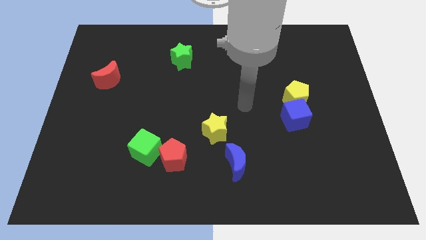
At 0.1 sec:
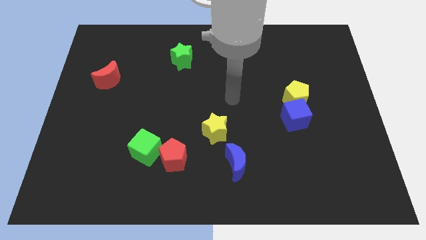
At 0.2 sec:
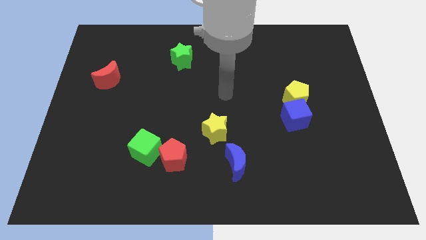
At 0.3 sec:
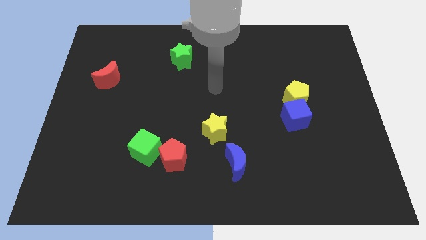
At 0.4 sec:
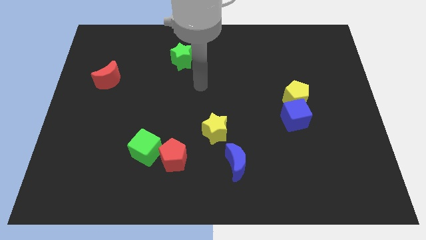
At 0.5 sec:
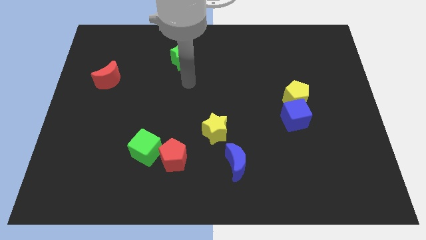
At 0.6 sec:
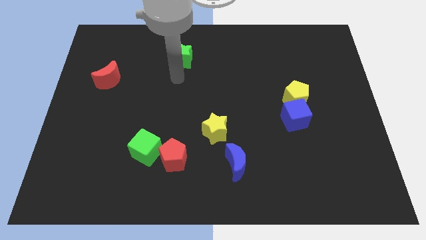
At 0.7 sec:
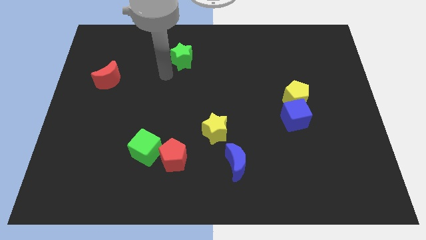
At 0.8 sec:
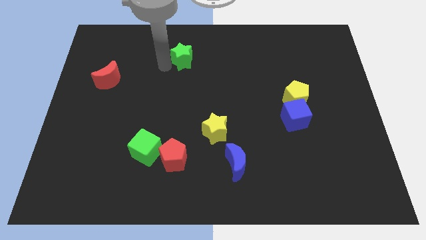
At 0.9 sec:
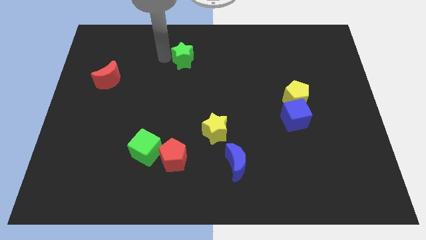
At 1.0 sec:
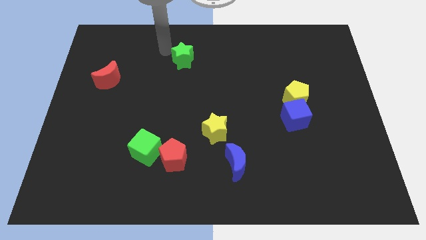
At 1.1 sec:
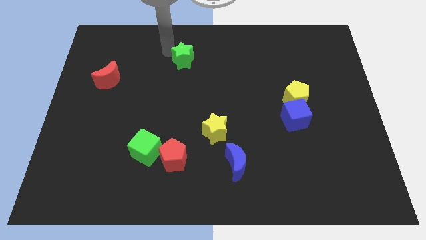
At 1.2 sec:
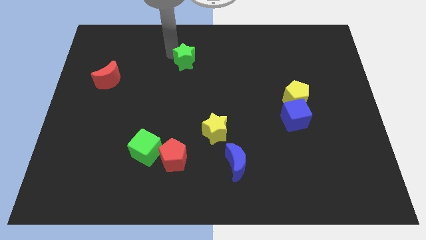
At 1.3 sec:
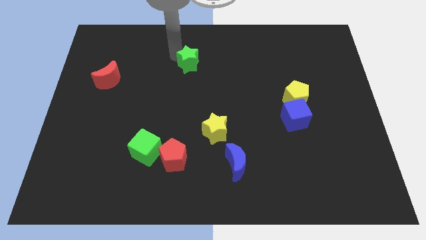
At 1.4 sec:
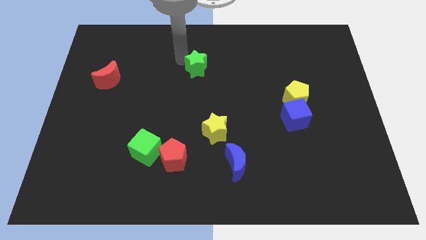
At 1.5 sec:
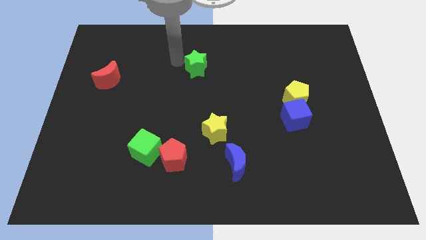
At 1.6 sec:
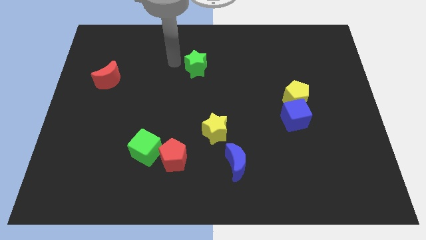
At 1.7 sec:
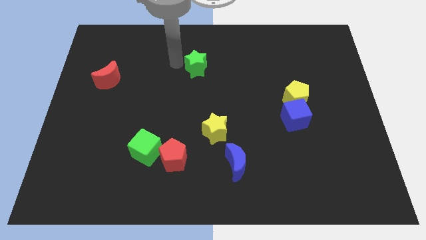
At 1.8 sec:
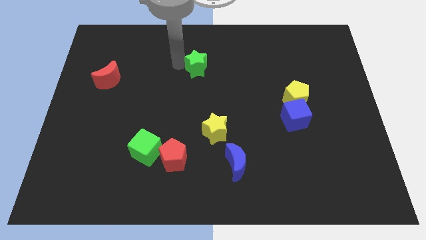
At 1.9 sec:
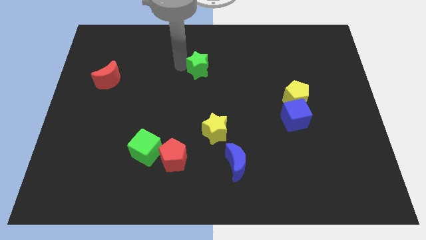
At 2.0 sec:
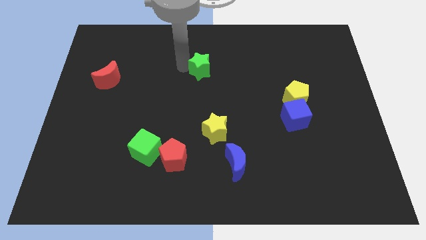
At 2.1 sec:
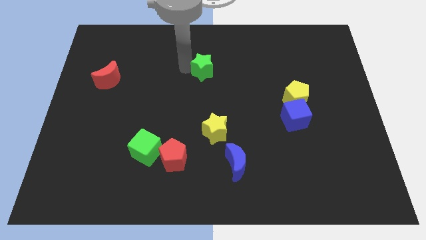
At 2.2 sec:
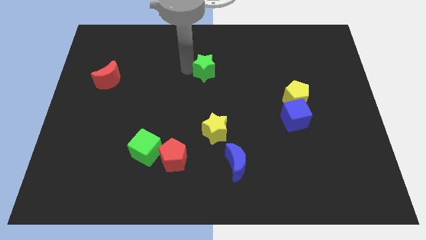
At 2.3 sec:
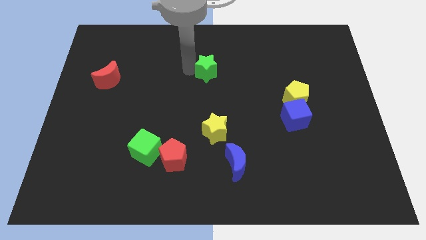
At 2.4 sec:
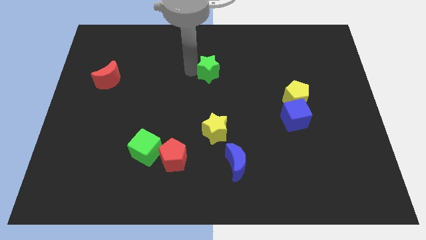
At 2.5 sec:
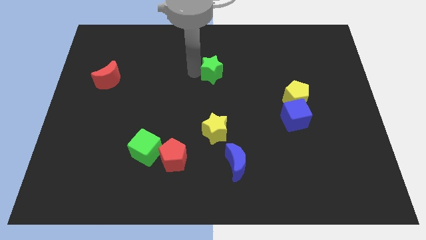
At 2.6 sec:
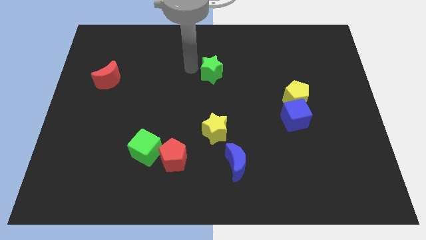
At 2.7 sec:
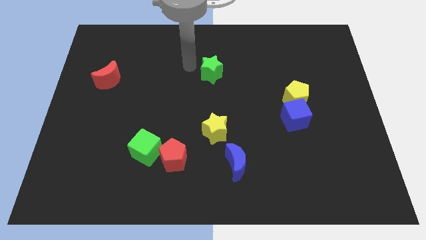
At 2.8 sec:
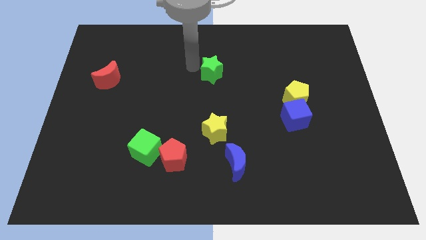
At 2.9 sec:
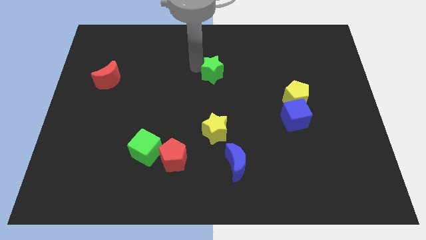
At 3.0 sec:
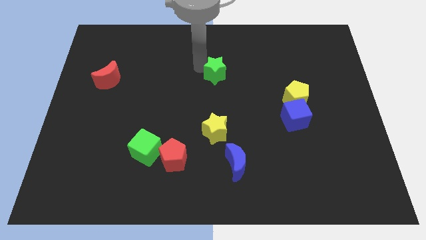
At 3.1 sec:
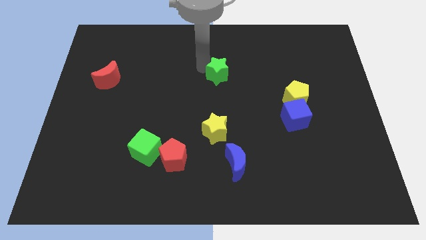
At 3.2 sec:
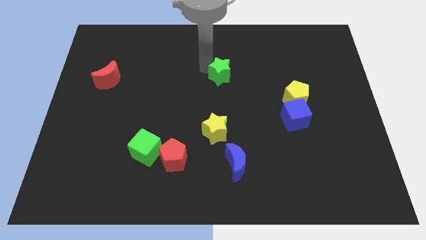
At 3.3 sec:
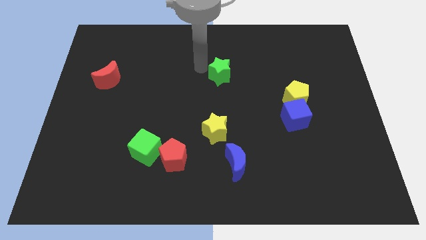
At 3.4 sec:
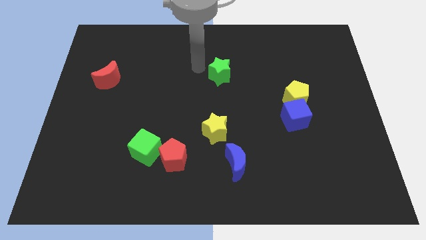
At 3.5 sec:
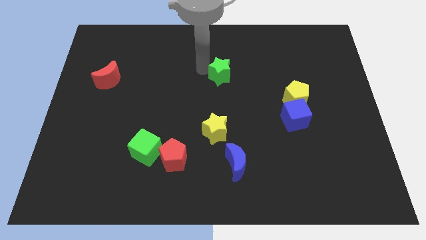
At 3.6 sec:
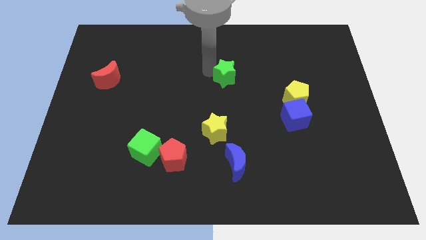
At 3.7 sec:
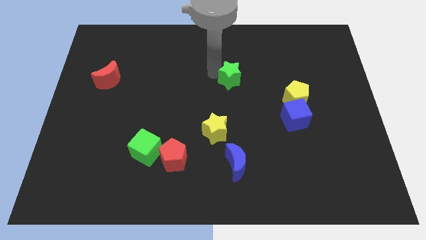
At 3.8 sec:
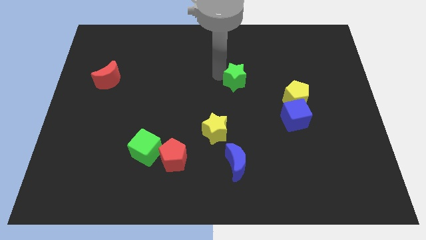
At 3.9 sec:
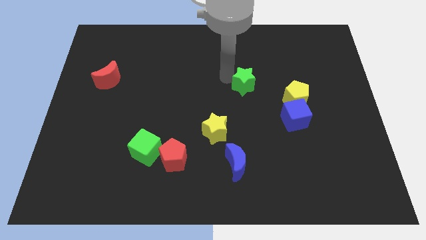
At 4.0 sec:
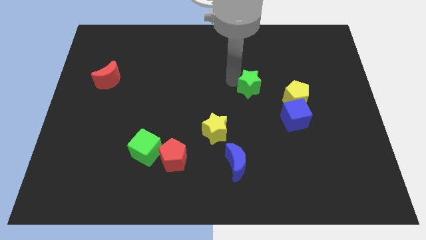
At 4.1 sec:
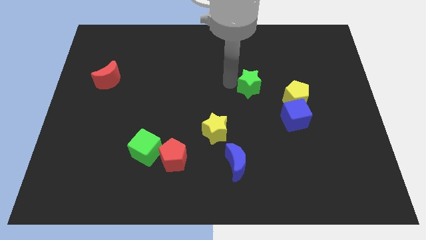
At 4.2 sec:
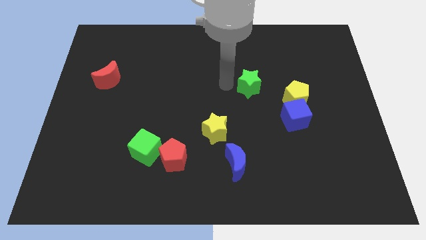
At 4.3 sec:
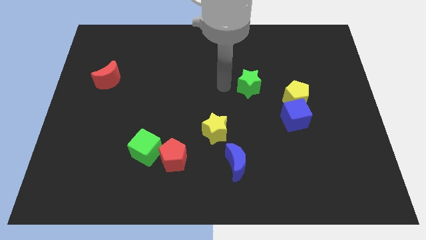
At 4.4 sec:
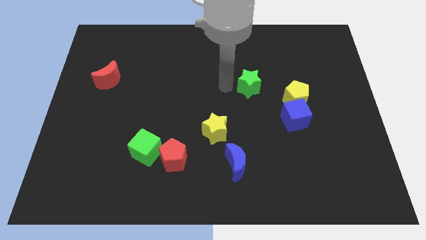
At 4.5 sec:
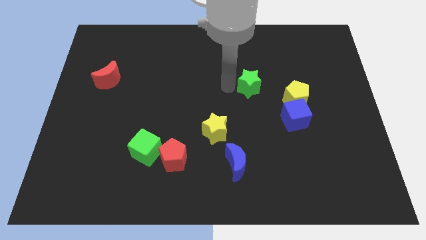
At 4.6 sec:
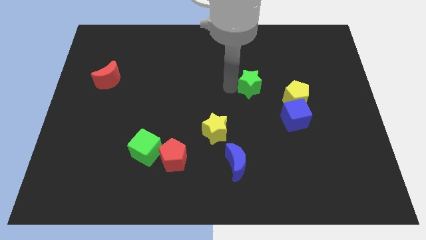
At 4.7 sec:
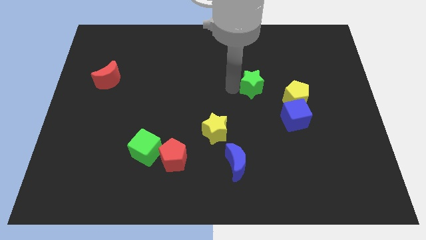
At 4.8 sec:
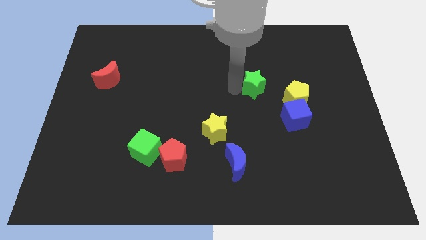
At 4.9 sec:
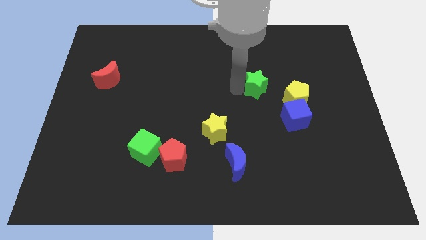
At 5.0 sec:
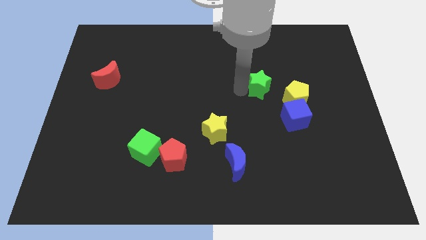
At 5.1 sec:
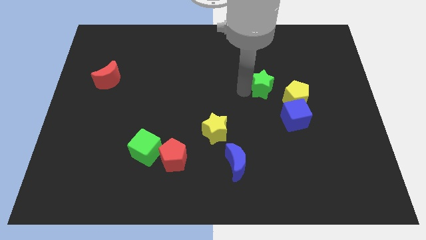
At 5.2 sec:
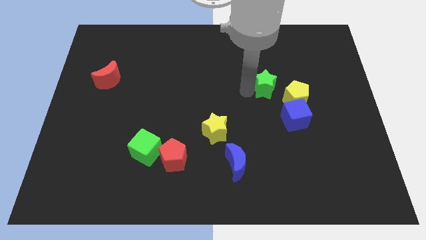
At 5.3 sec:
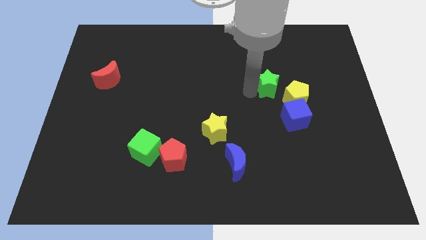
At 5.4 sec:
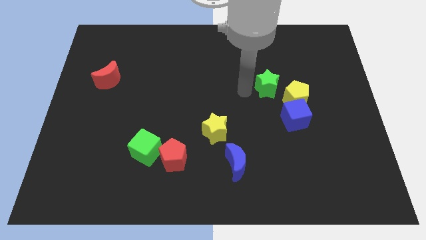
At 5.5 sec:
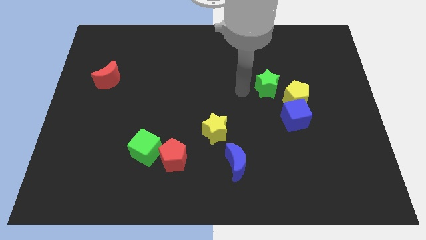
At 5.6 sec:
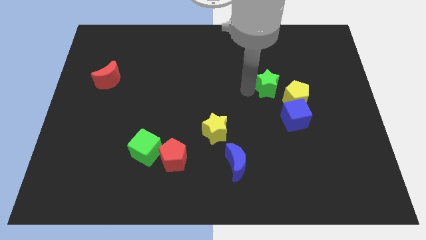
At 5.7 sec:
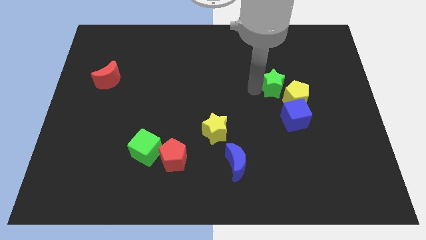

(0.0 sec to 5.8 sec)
put the green star to the top side of the blue cube

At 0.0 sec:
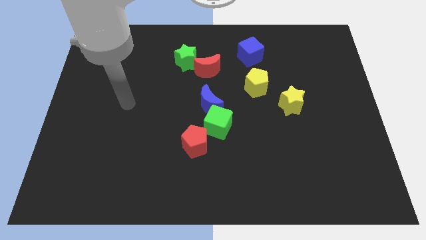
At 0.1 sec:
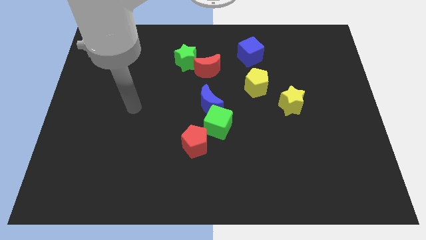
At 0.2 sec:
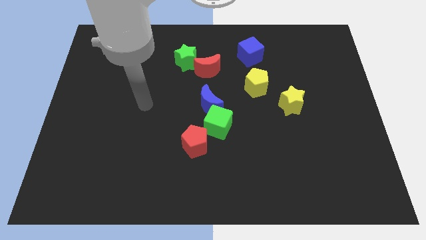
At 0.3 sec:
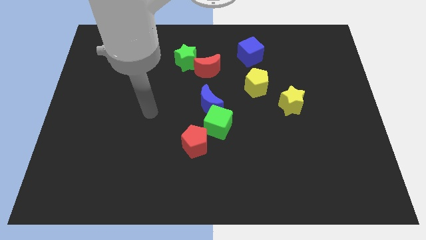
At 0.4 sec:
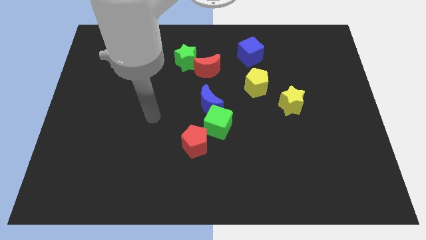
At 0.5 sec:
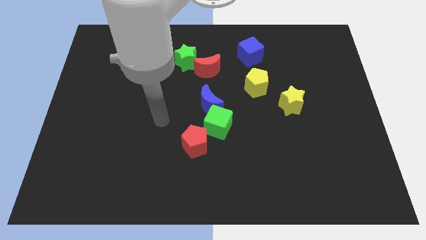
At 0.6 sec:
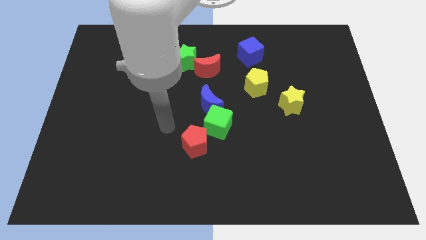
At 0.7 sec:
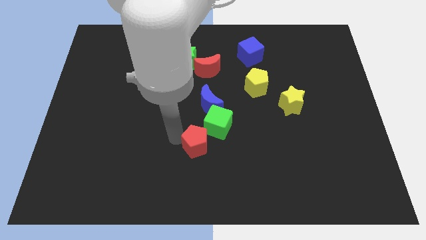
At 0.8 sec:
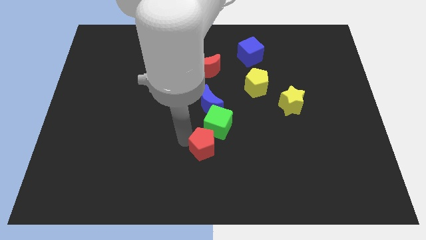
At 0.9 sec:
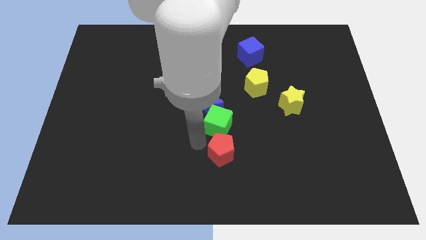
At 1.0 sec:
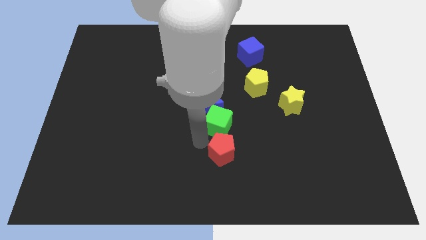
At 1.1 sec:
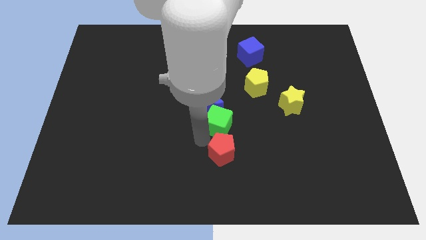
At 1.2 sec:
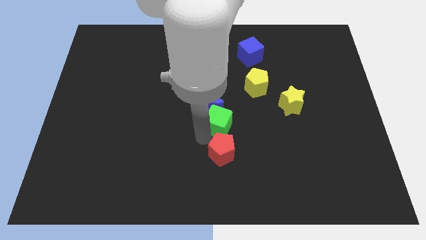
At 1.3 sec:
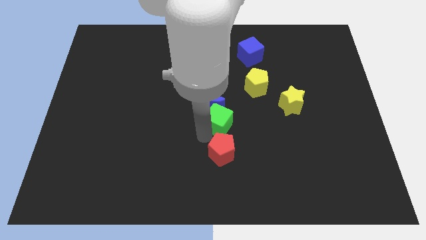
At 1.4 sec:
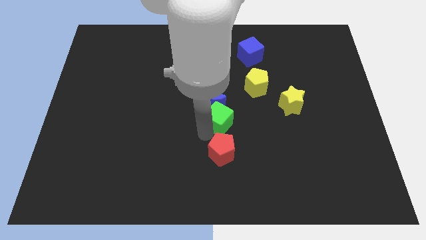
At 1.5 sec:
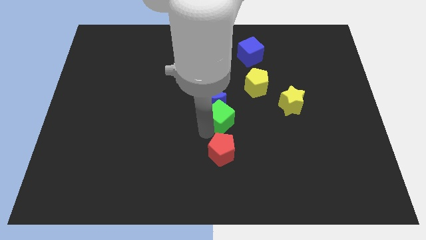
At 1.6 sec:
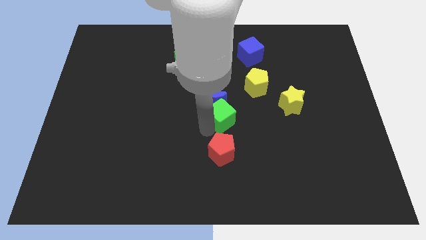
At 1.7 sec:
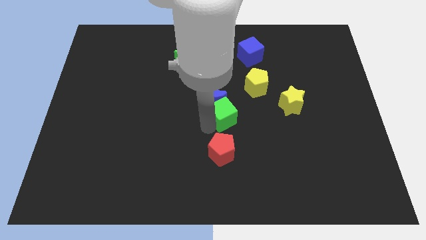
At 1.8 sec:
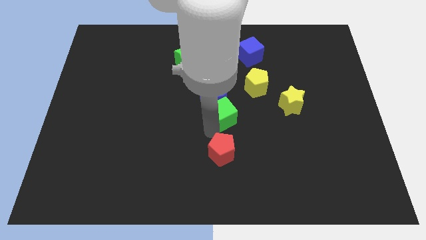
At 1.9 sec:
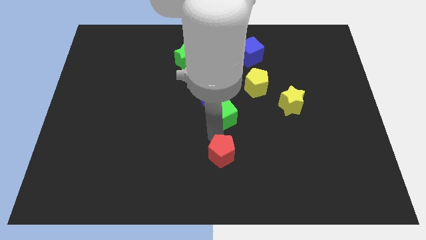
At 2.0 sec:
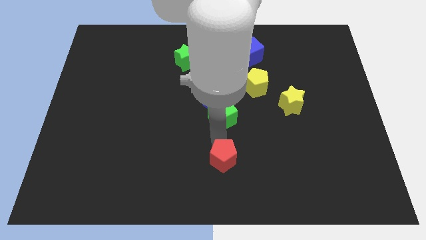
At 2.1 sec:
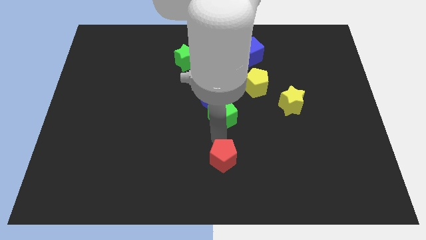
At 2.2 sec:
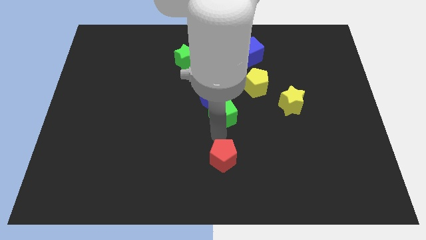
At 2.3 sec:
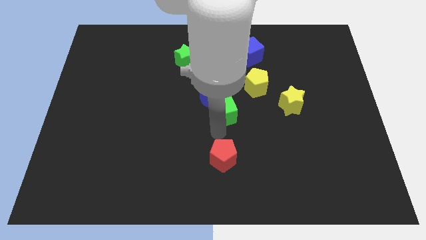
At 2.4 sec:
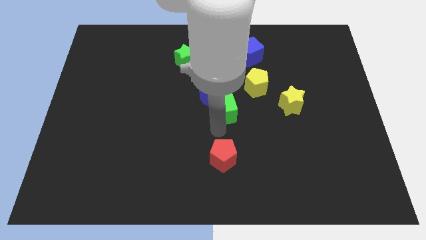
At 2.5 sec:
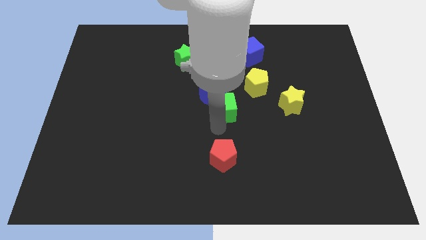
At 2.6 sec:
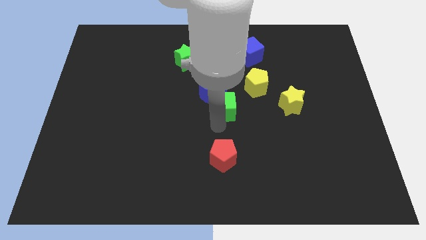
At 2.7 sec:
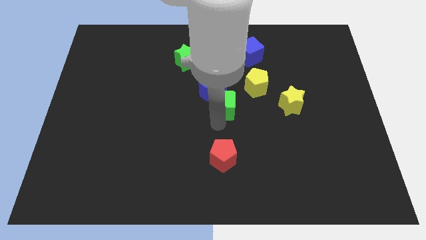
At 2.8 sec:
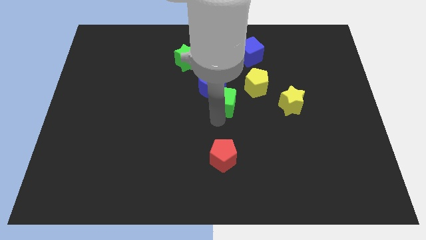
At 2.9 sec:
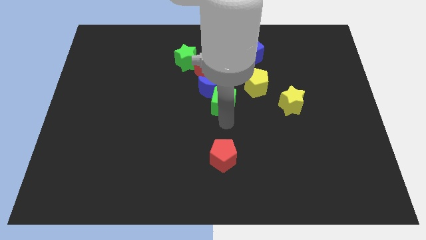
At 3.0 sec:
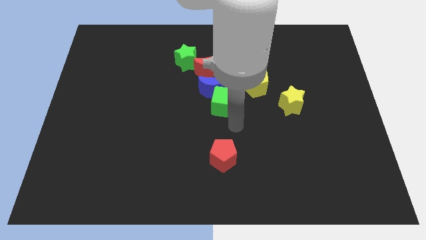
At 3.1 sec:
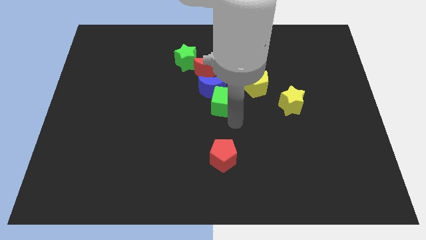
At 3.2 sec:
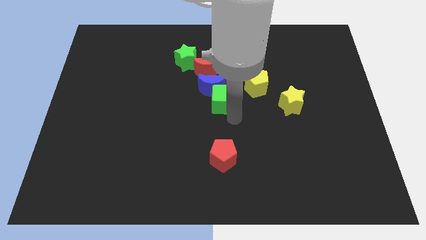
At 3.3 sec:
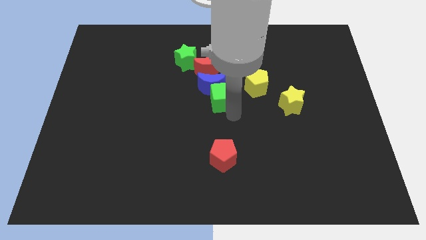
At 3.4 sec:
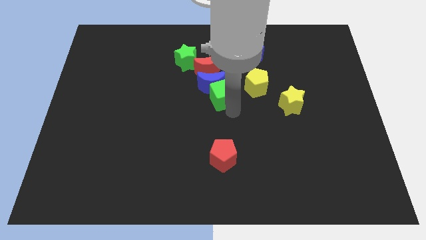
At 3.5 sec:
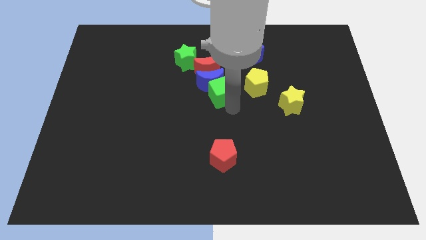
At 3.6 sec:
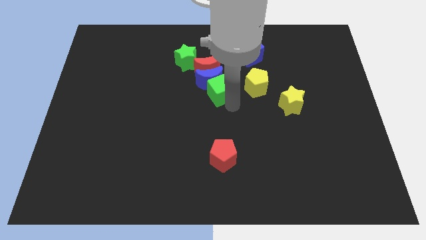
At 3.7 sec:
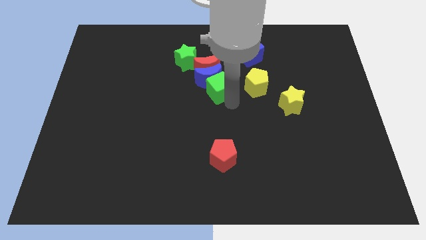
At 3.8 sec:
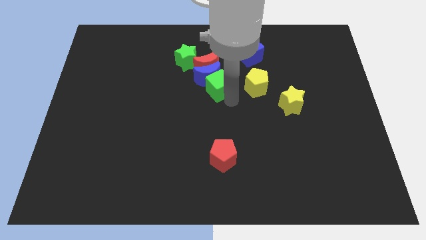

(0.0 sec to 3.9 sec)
move the green cube to the bottom right of the green star
